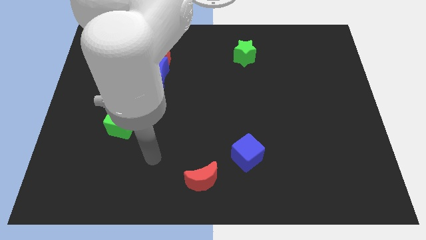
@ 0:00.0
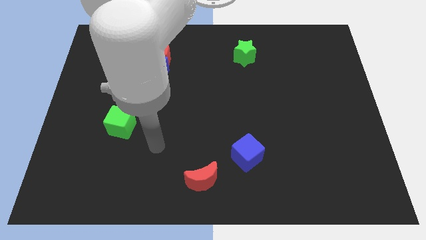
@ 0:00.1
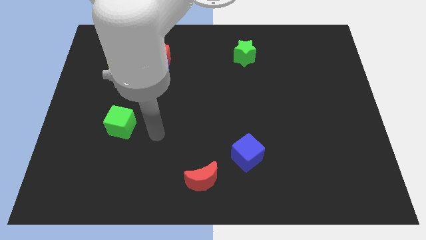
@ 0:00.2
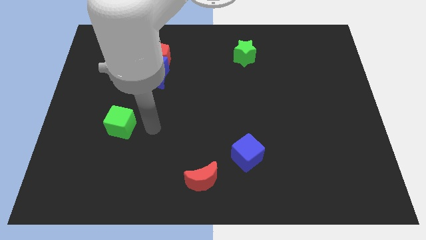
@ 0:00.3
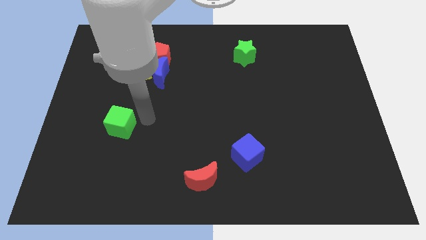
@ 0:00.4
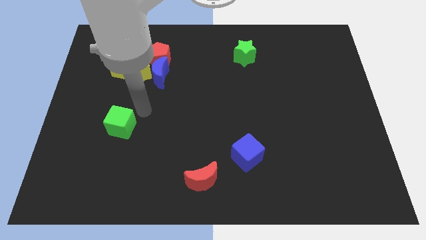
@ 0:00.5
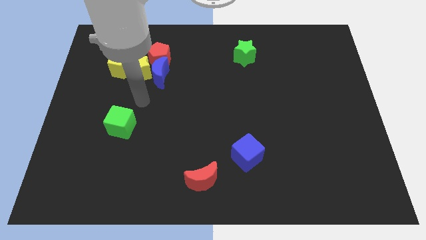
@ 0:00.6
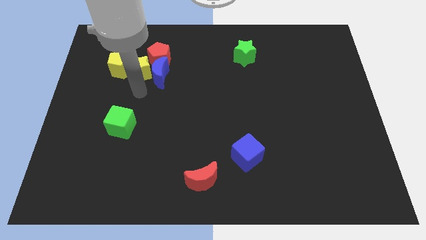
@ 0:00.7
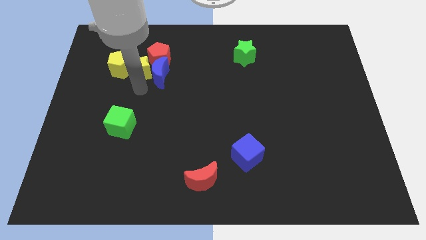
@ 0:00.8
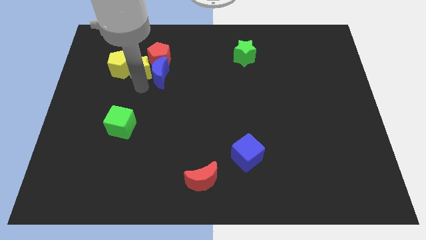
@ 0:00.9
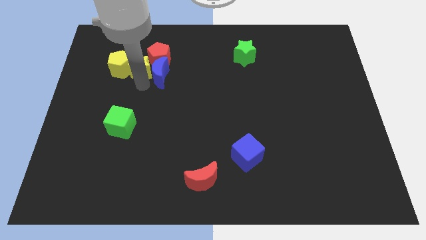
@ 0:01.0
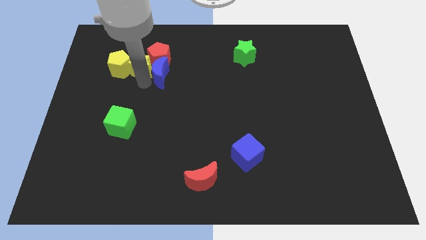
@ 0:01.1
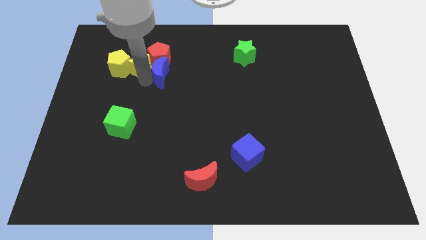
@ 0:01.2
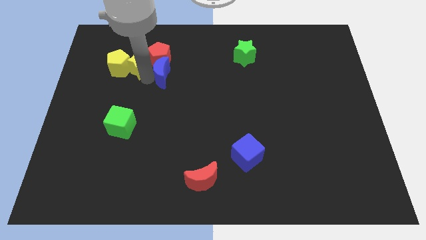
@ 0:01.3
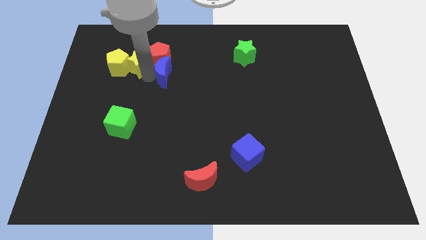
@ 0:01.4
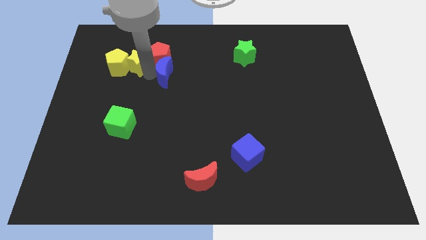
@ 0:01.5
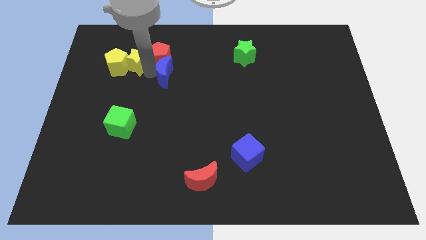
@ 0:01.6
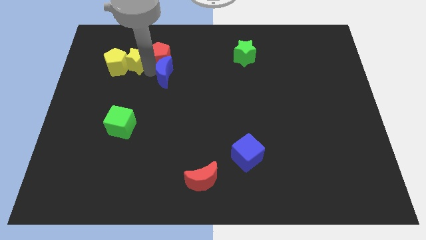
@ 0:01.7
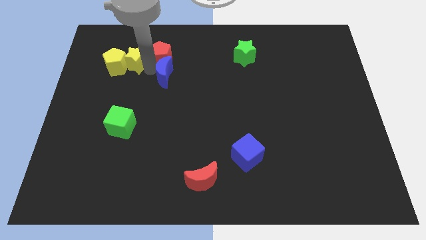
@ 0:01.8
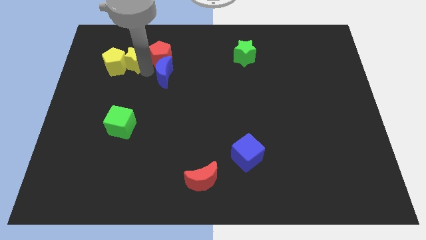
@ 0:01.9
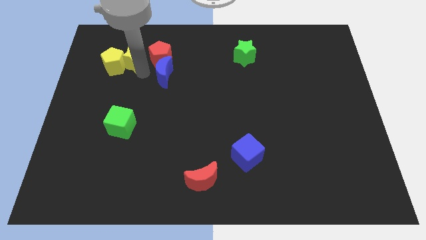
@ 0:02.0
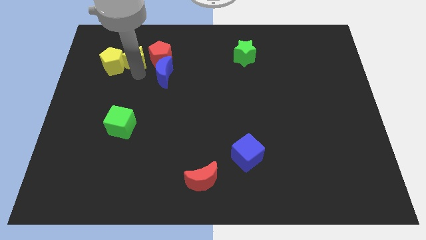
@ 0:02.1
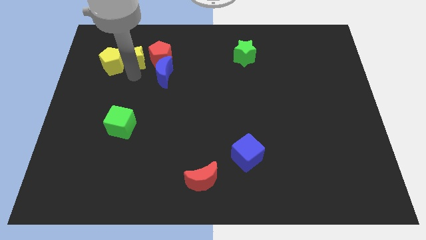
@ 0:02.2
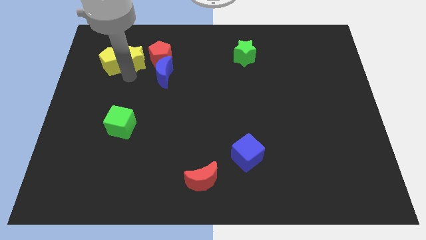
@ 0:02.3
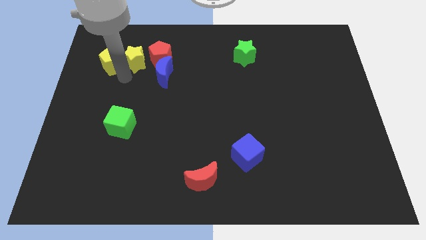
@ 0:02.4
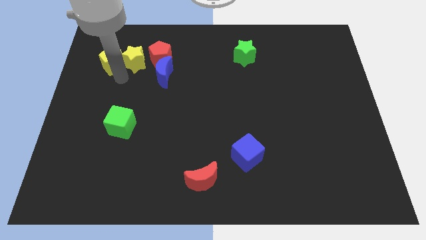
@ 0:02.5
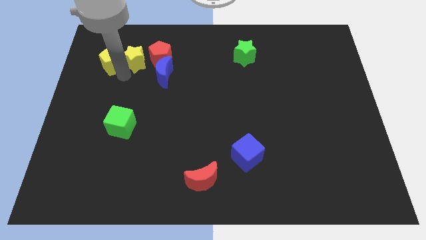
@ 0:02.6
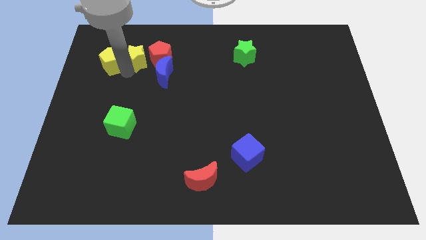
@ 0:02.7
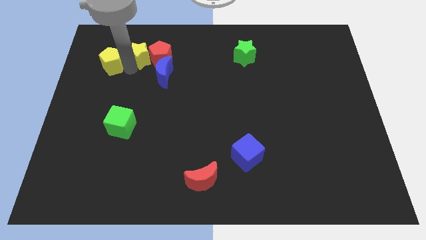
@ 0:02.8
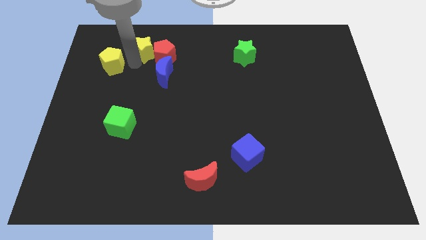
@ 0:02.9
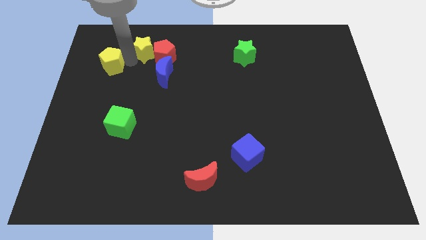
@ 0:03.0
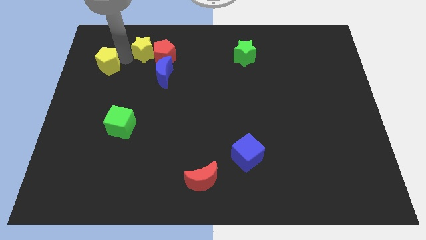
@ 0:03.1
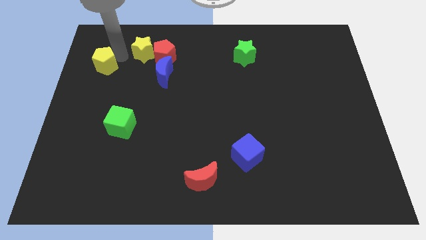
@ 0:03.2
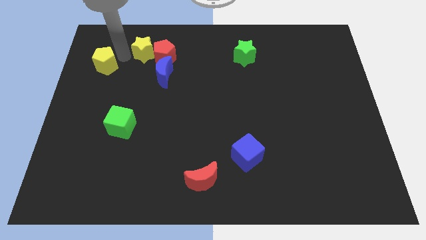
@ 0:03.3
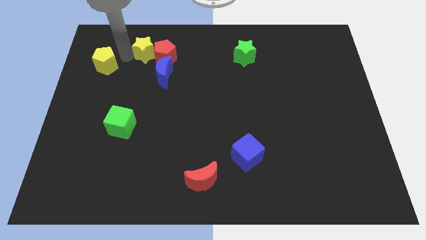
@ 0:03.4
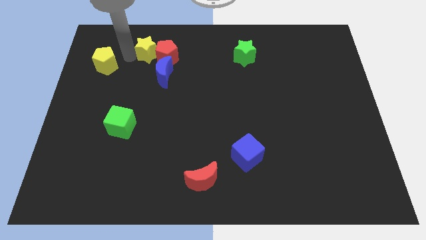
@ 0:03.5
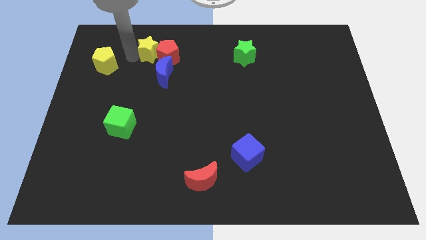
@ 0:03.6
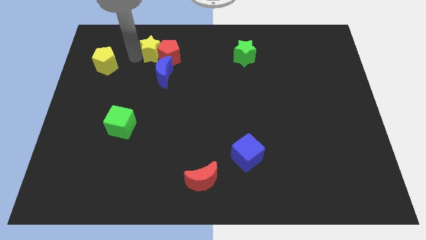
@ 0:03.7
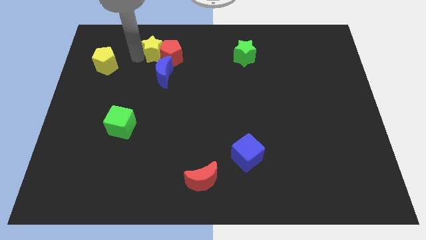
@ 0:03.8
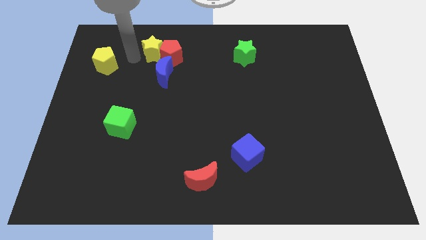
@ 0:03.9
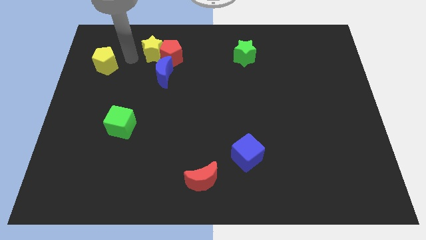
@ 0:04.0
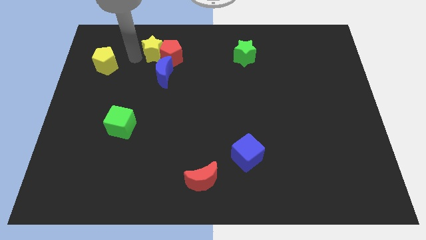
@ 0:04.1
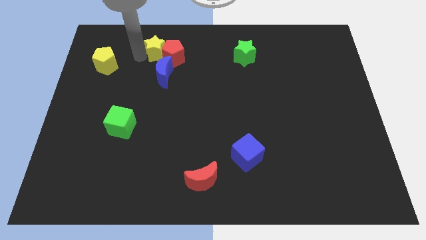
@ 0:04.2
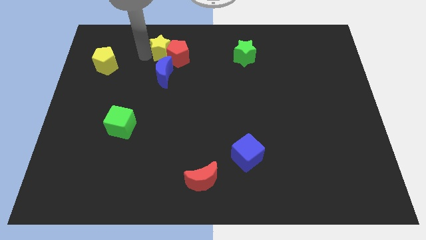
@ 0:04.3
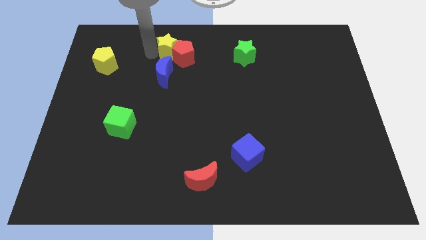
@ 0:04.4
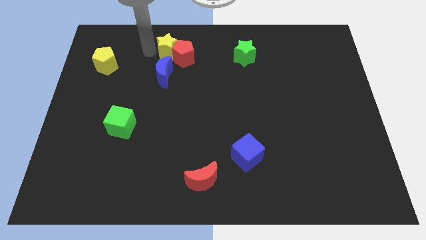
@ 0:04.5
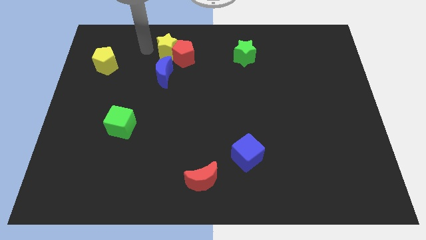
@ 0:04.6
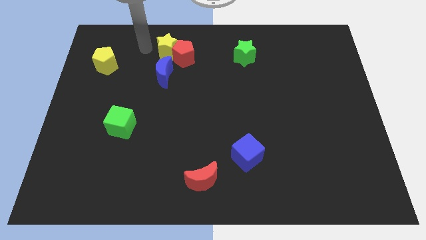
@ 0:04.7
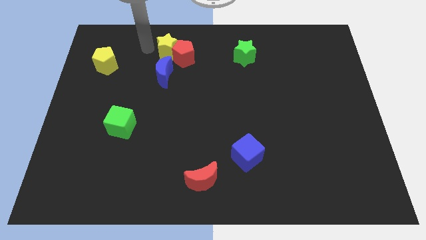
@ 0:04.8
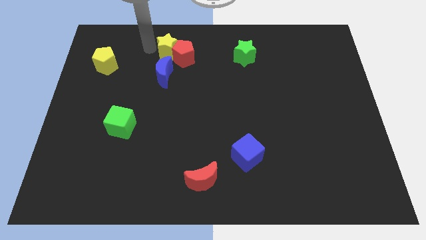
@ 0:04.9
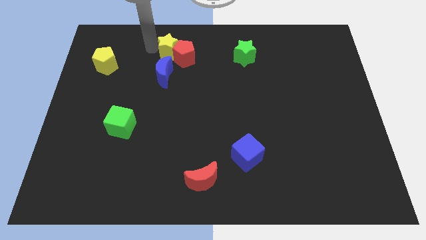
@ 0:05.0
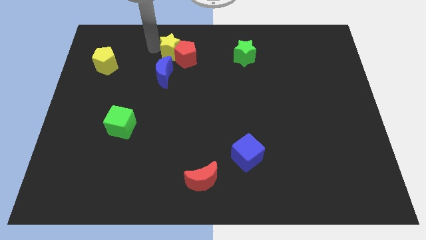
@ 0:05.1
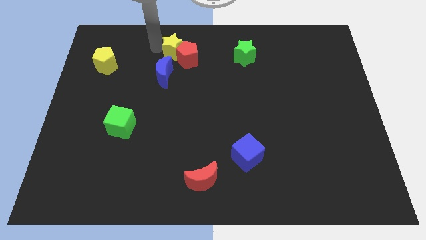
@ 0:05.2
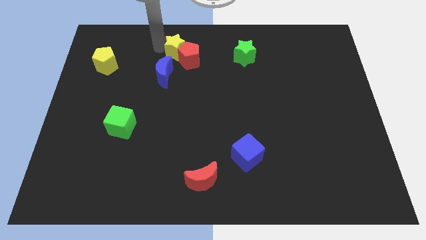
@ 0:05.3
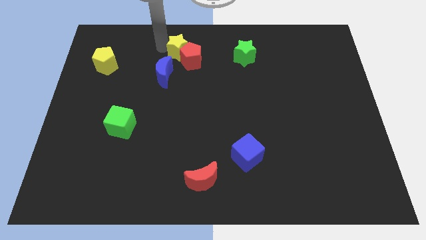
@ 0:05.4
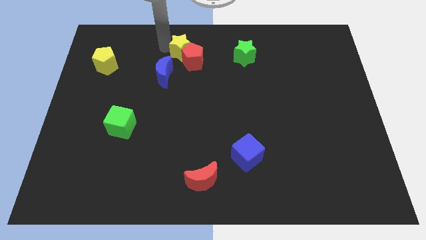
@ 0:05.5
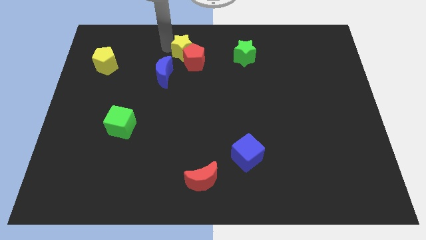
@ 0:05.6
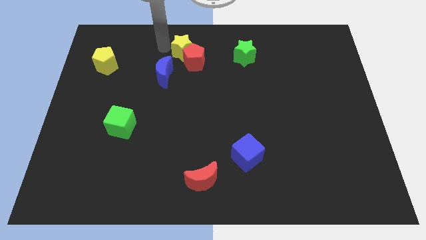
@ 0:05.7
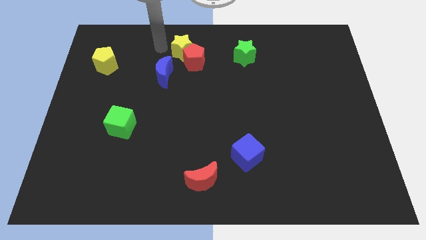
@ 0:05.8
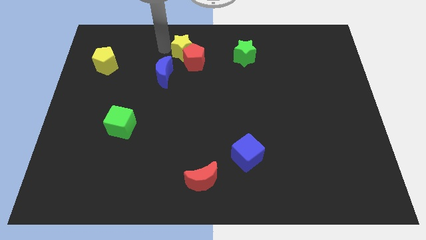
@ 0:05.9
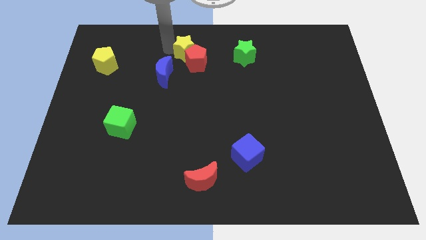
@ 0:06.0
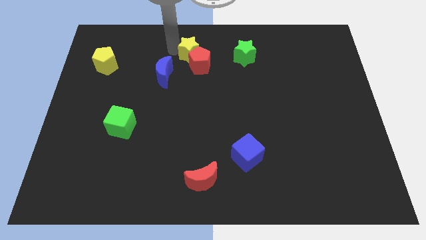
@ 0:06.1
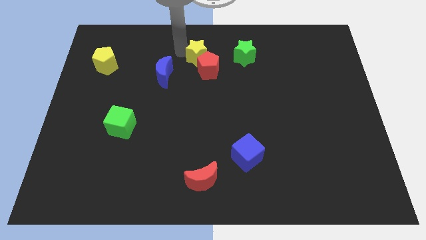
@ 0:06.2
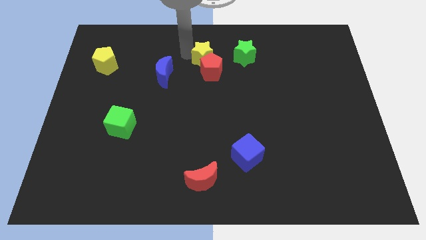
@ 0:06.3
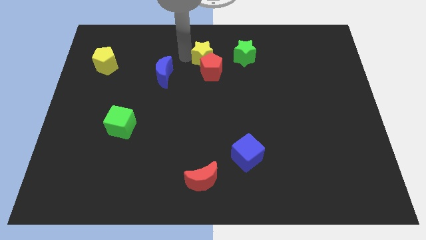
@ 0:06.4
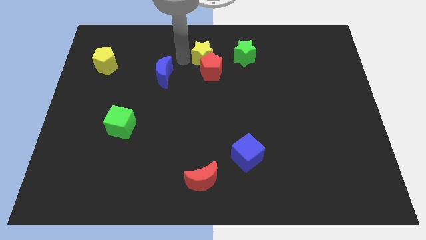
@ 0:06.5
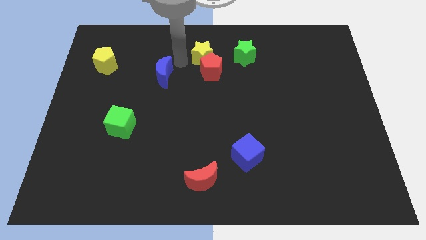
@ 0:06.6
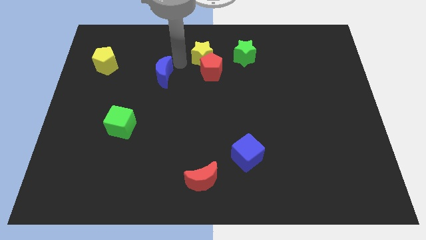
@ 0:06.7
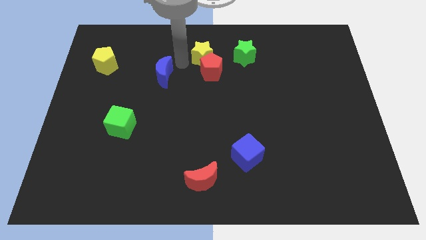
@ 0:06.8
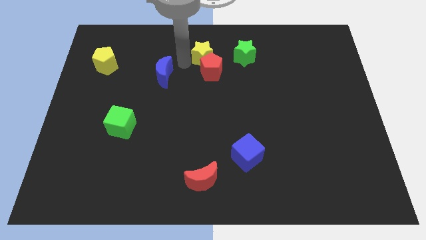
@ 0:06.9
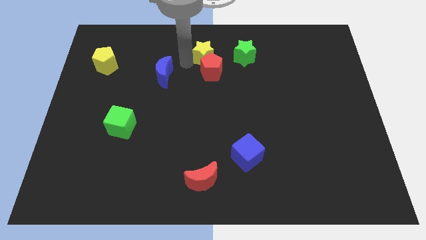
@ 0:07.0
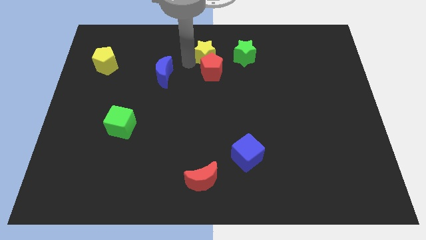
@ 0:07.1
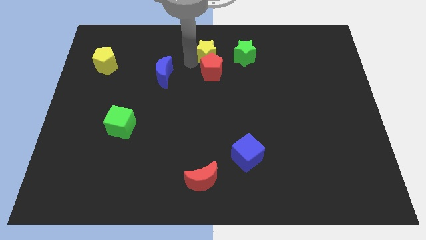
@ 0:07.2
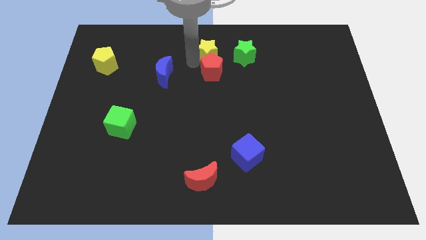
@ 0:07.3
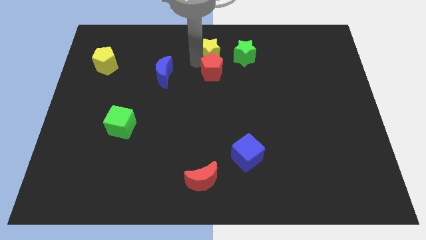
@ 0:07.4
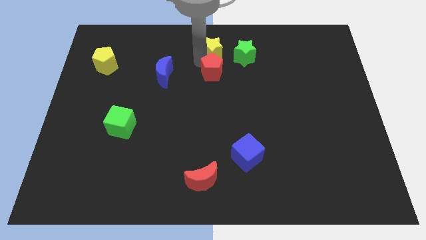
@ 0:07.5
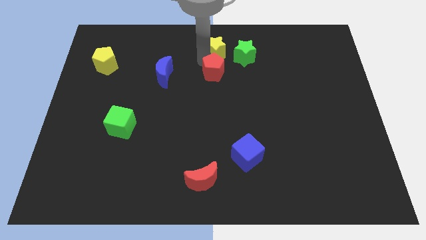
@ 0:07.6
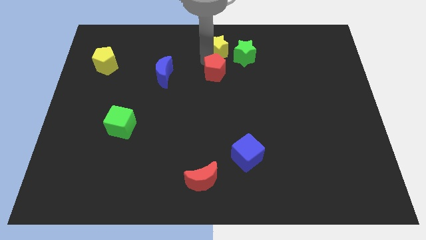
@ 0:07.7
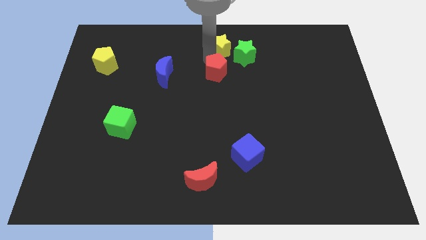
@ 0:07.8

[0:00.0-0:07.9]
slide the yellow star to the green star
